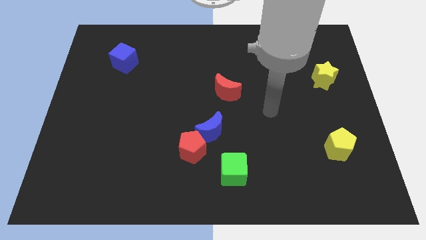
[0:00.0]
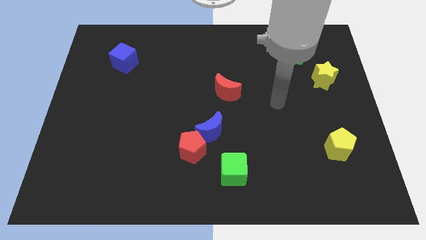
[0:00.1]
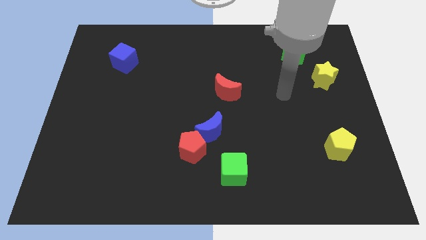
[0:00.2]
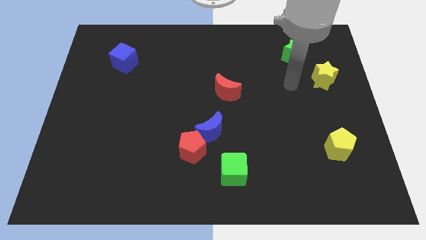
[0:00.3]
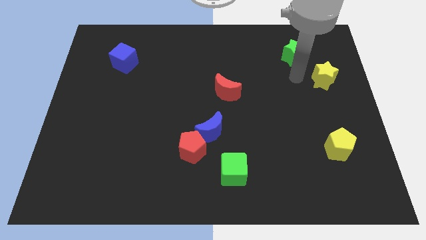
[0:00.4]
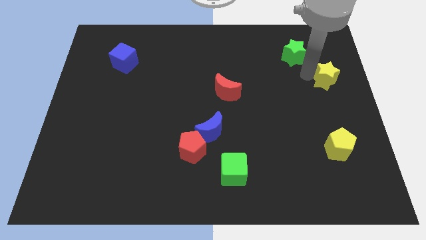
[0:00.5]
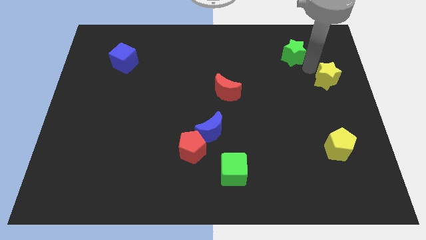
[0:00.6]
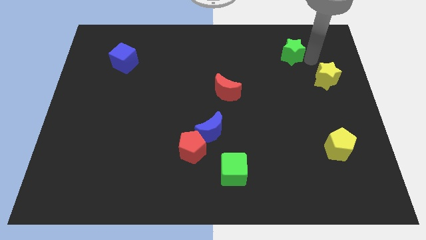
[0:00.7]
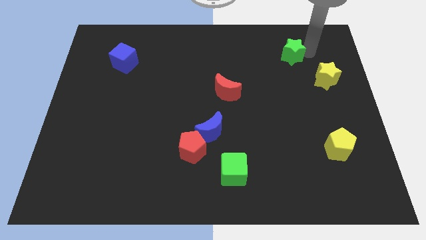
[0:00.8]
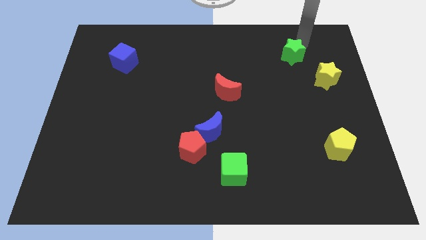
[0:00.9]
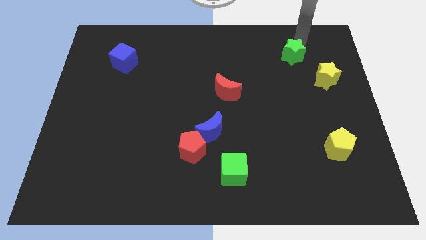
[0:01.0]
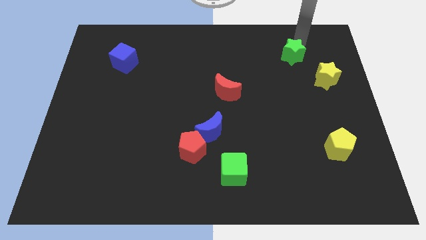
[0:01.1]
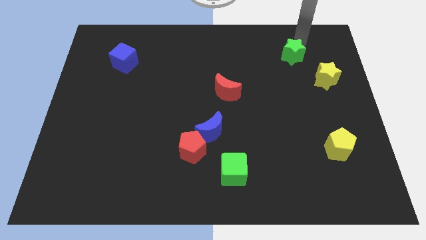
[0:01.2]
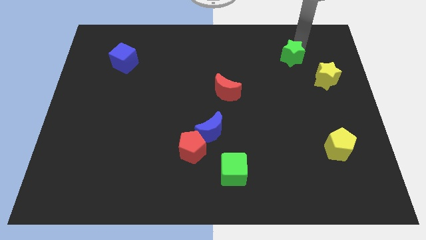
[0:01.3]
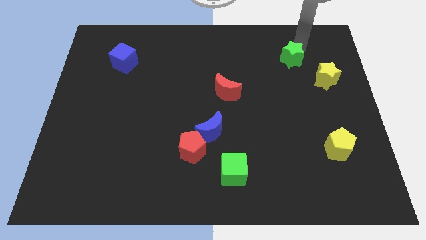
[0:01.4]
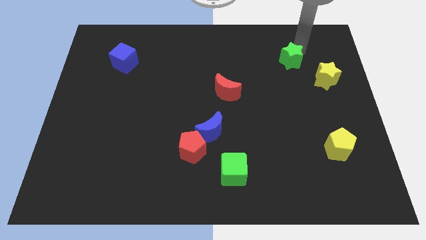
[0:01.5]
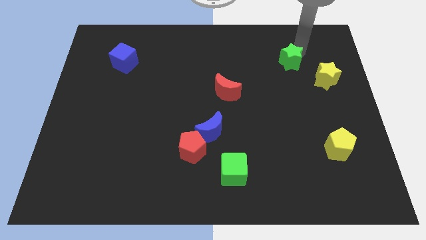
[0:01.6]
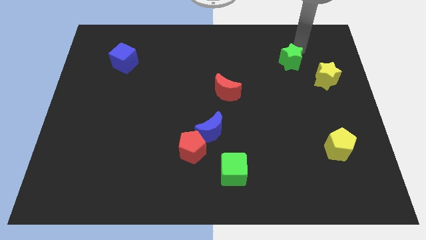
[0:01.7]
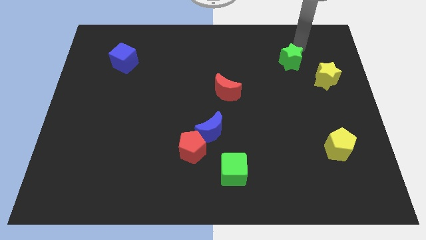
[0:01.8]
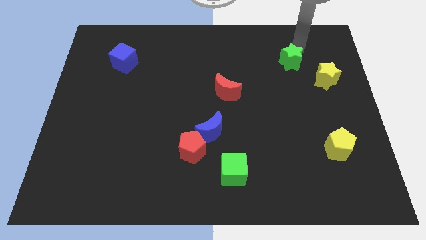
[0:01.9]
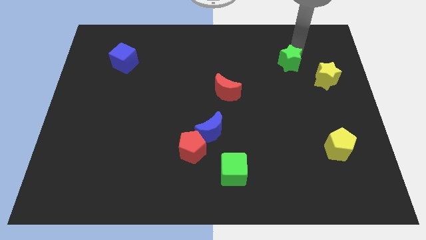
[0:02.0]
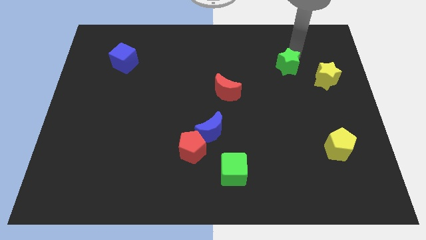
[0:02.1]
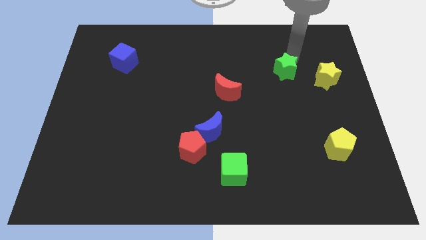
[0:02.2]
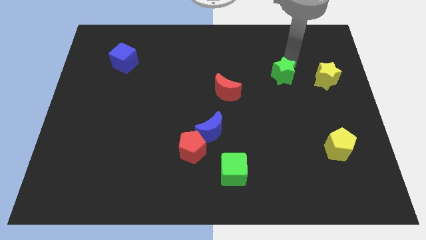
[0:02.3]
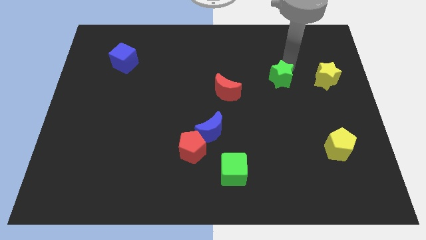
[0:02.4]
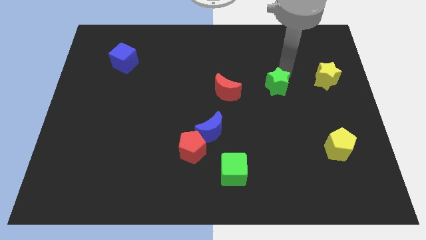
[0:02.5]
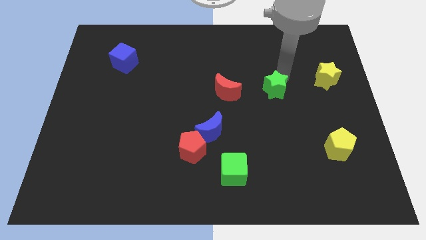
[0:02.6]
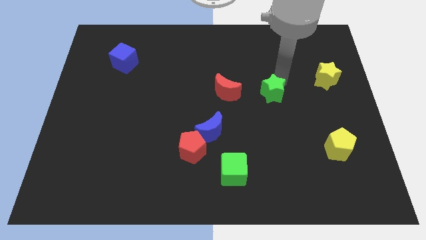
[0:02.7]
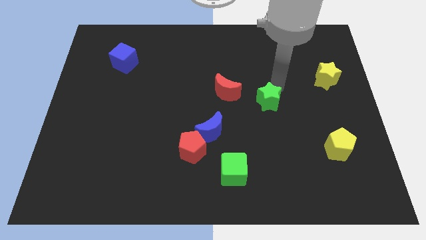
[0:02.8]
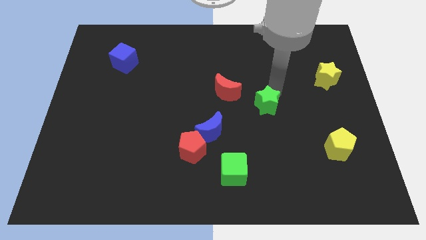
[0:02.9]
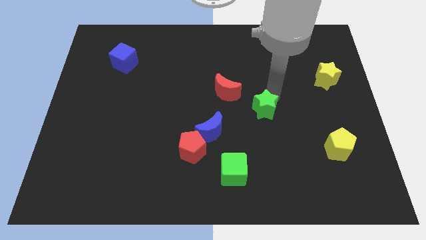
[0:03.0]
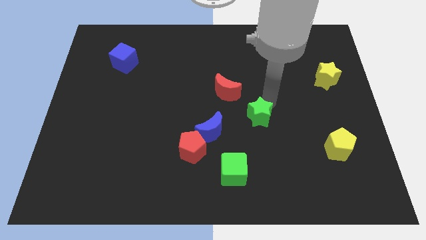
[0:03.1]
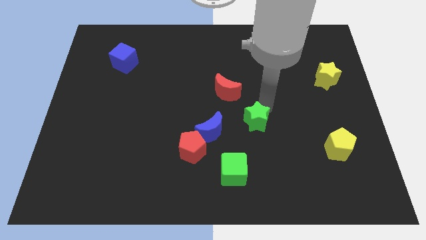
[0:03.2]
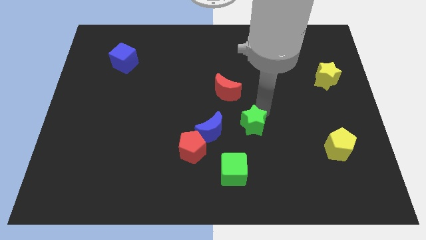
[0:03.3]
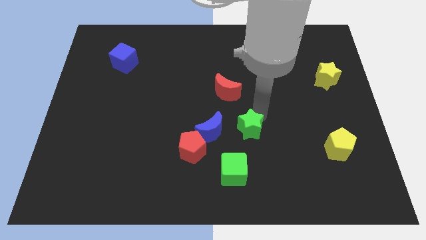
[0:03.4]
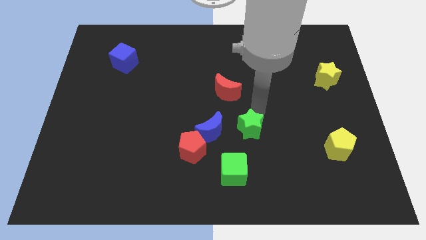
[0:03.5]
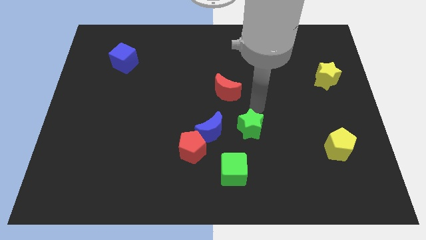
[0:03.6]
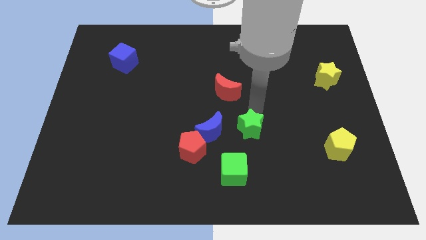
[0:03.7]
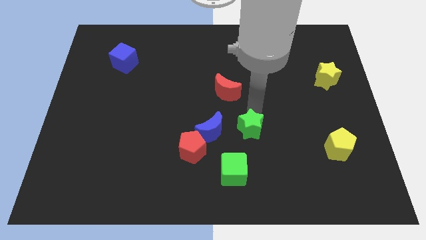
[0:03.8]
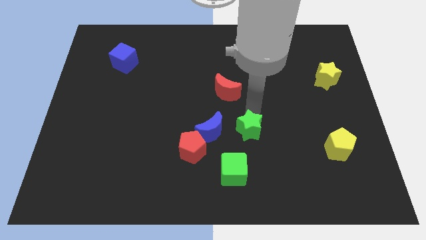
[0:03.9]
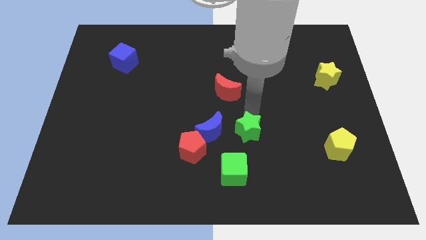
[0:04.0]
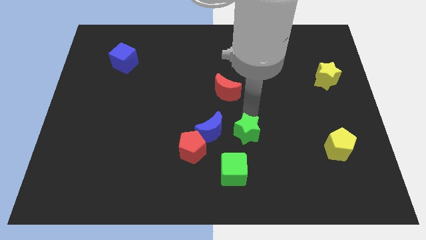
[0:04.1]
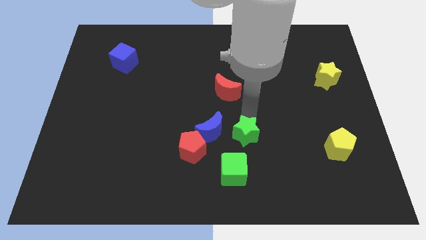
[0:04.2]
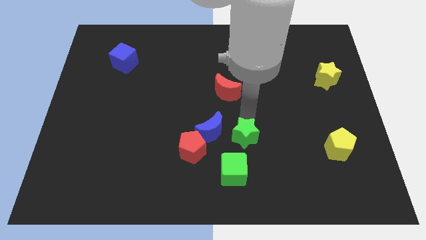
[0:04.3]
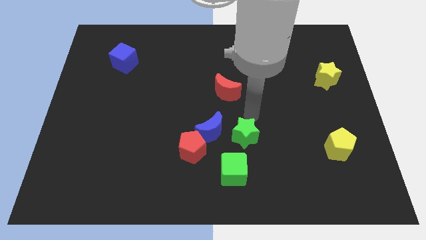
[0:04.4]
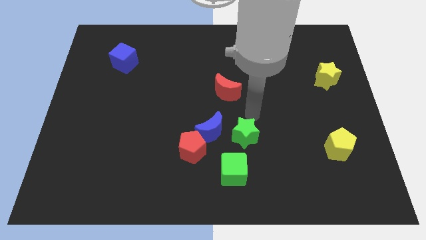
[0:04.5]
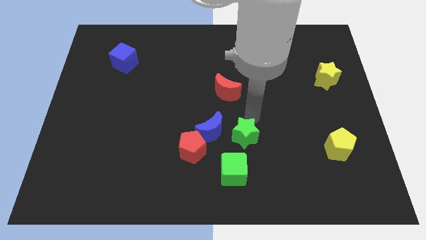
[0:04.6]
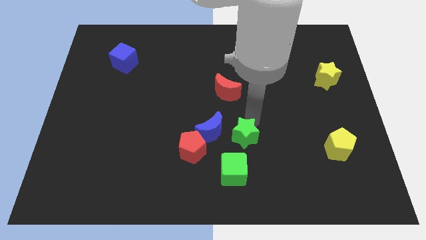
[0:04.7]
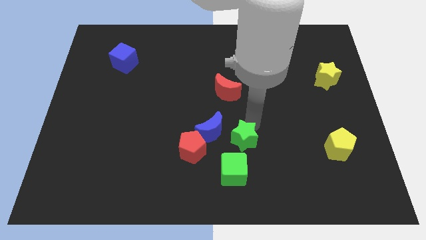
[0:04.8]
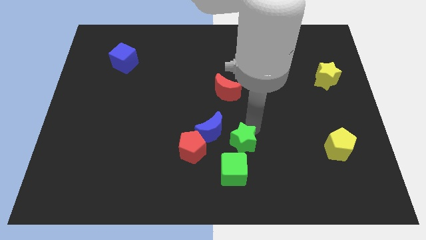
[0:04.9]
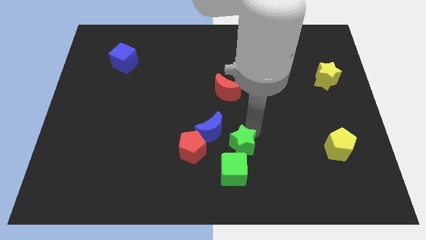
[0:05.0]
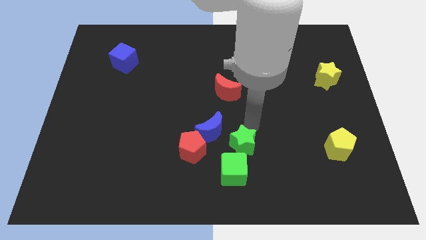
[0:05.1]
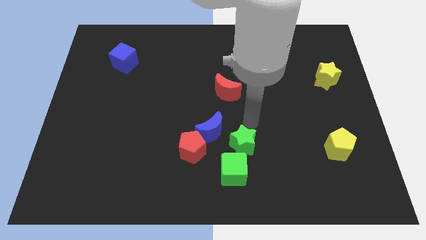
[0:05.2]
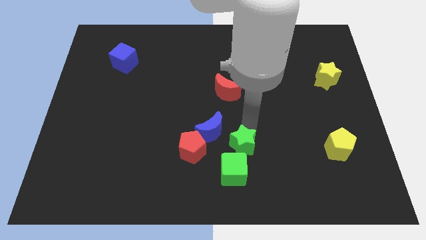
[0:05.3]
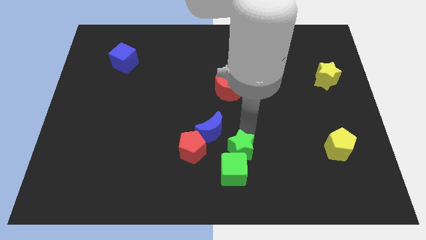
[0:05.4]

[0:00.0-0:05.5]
push the green star to the green cube
